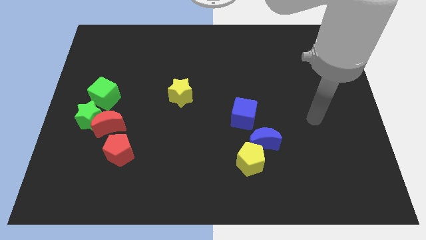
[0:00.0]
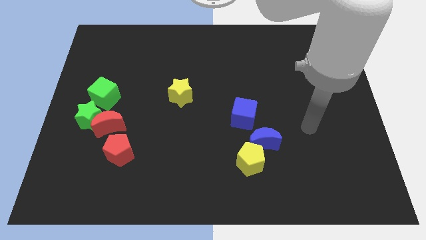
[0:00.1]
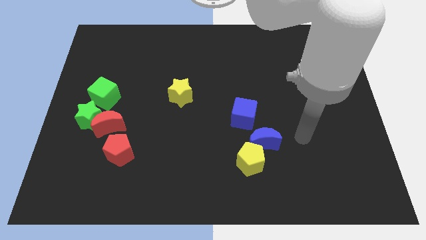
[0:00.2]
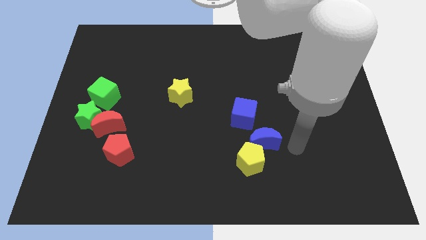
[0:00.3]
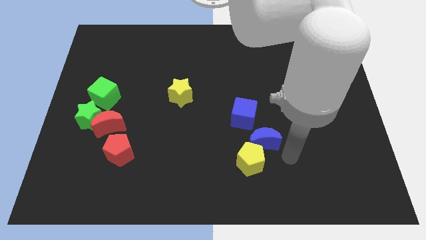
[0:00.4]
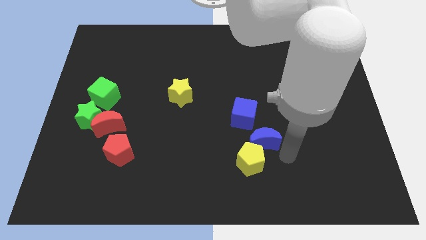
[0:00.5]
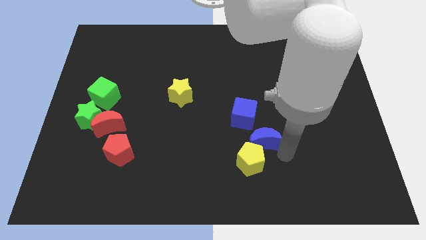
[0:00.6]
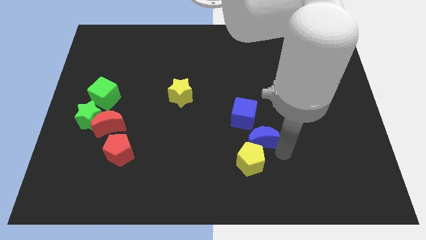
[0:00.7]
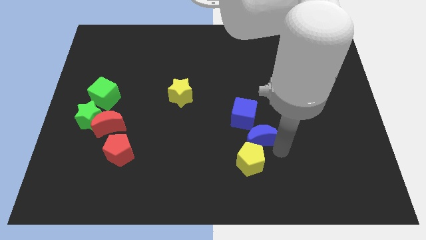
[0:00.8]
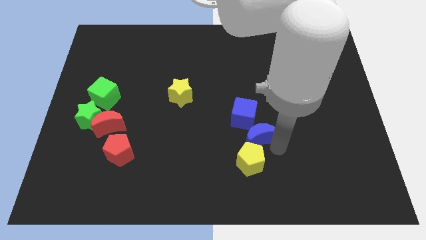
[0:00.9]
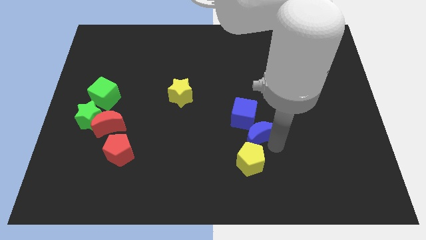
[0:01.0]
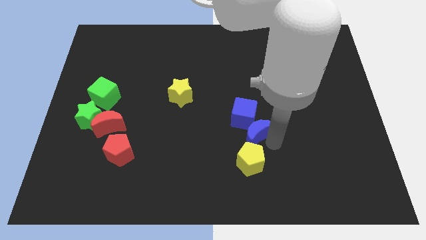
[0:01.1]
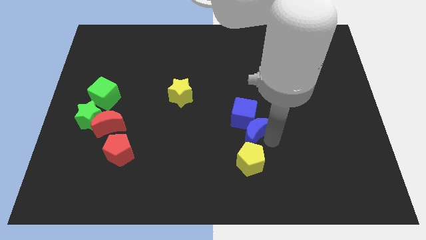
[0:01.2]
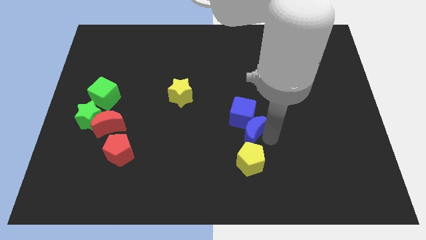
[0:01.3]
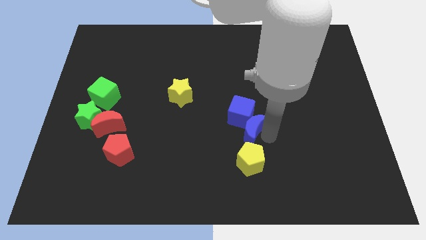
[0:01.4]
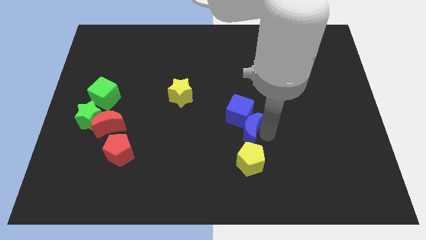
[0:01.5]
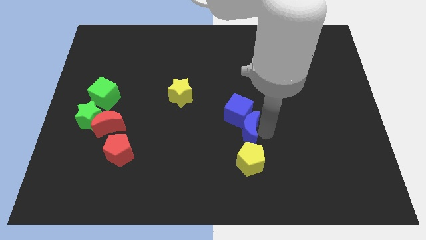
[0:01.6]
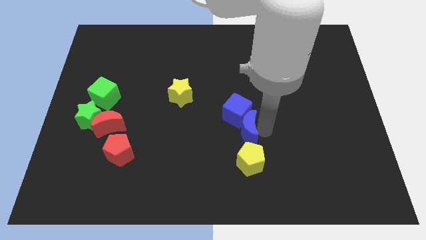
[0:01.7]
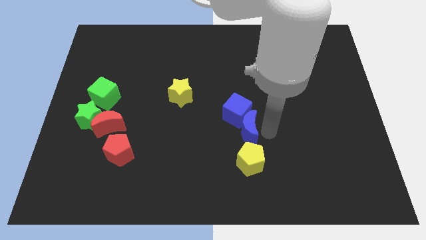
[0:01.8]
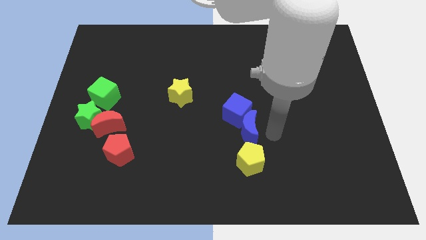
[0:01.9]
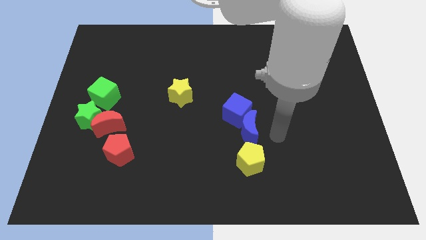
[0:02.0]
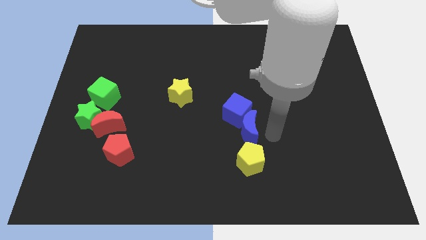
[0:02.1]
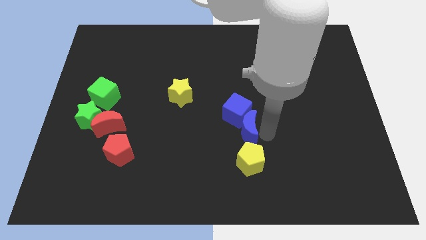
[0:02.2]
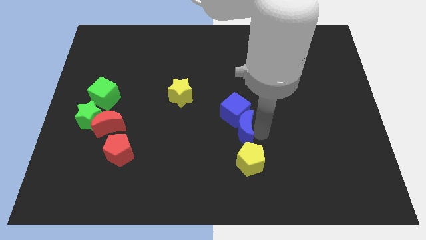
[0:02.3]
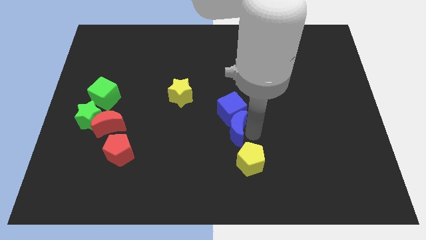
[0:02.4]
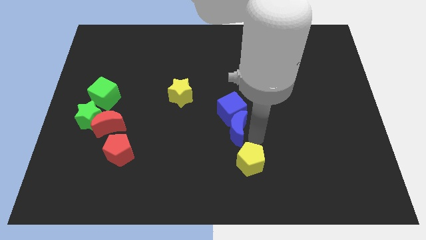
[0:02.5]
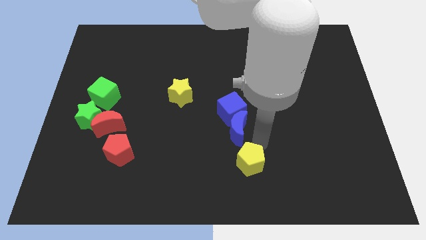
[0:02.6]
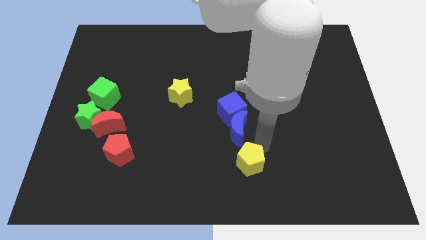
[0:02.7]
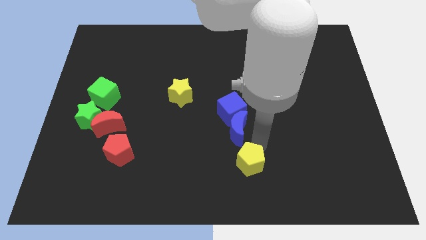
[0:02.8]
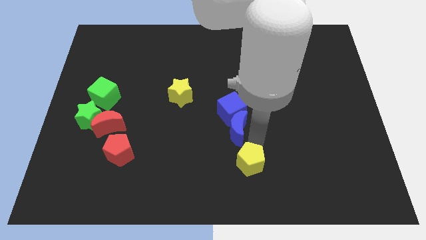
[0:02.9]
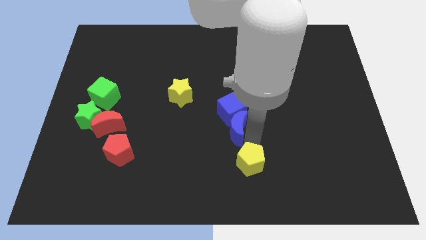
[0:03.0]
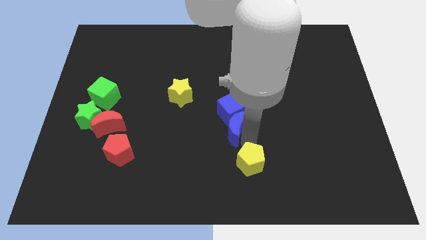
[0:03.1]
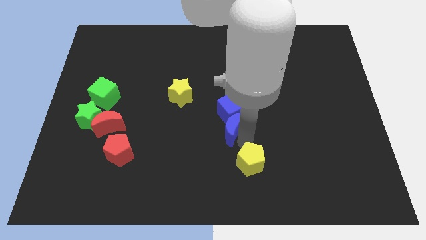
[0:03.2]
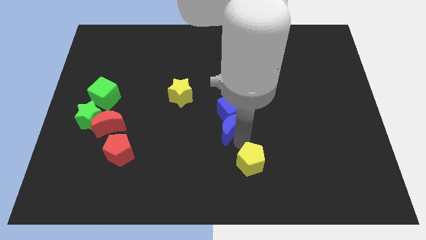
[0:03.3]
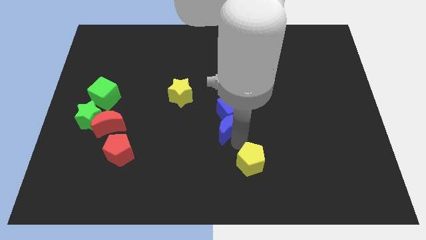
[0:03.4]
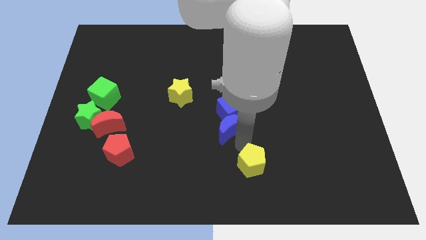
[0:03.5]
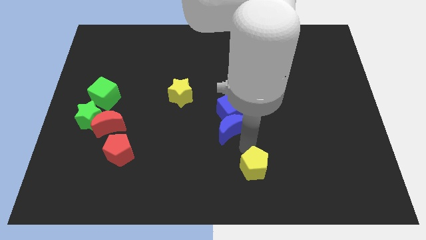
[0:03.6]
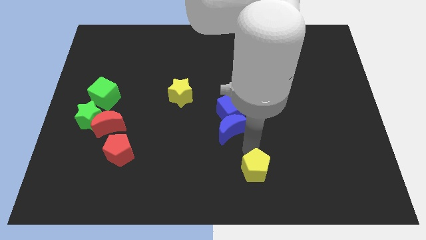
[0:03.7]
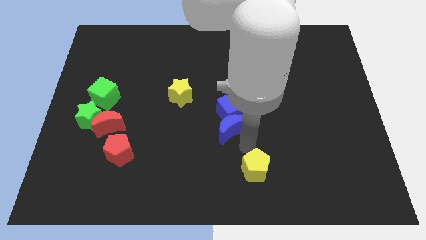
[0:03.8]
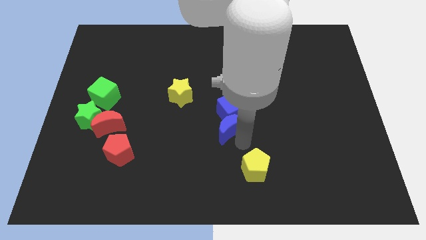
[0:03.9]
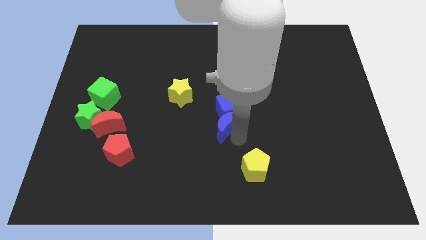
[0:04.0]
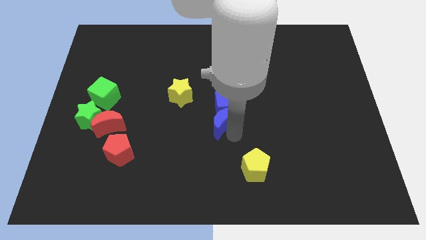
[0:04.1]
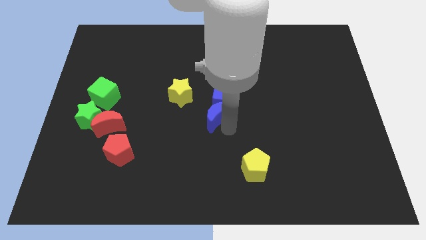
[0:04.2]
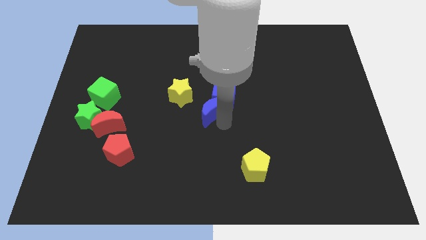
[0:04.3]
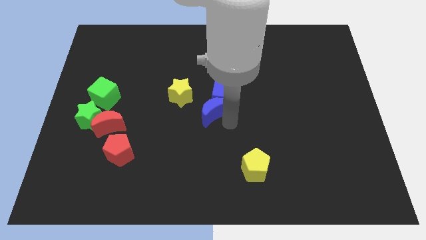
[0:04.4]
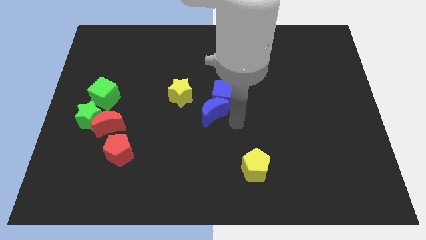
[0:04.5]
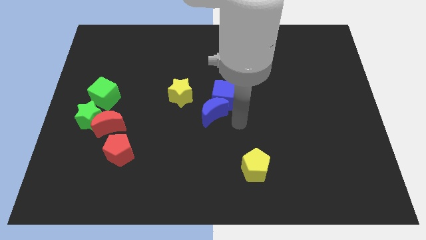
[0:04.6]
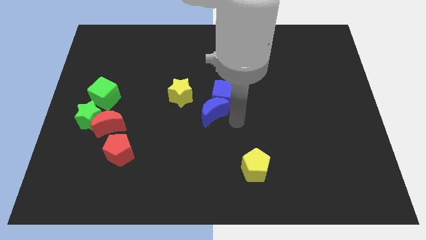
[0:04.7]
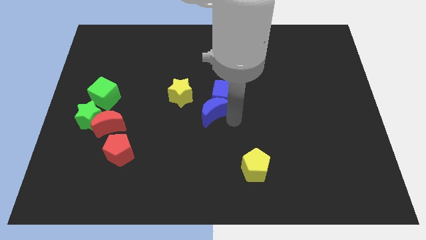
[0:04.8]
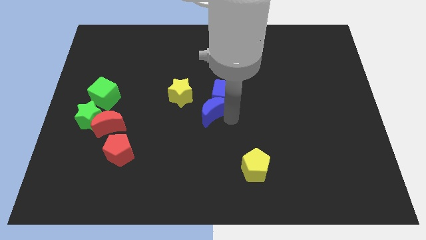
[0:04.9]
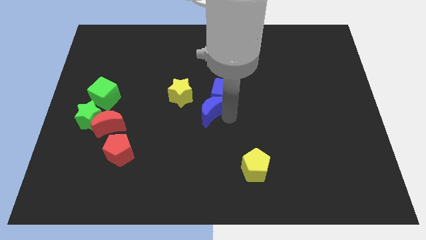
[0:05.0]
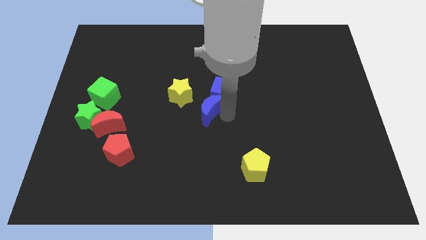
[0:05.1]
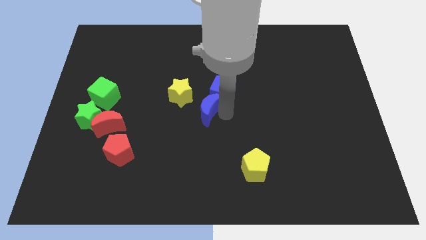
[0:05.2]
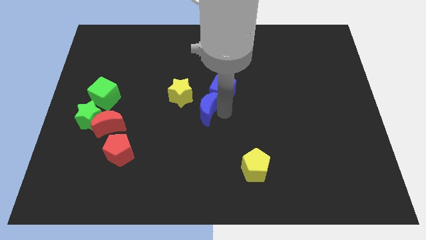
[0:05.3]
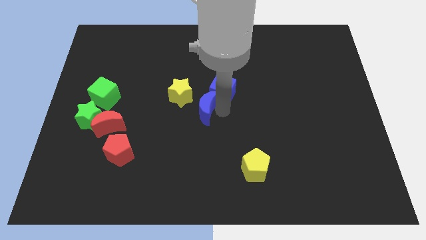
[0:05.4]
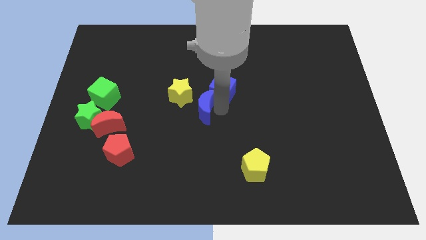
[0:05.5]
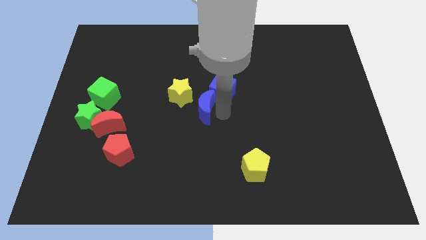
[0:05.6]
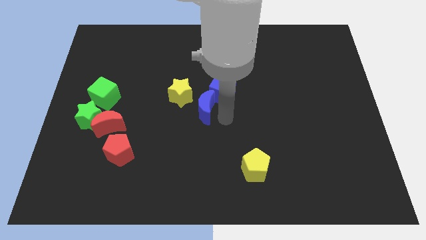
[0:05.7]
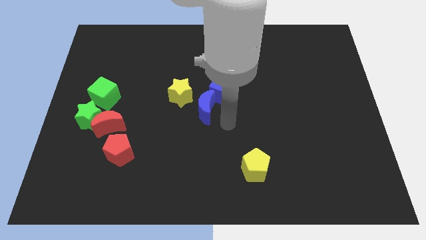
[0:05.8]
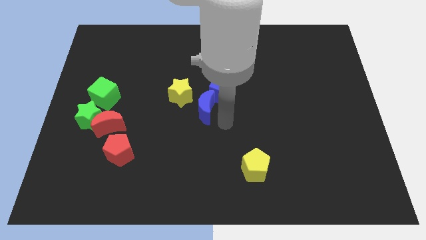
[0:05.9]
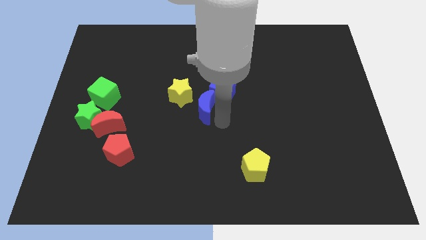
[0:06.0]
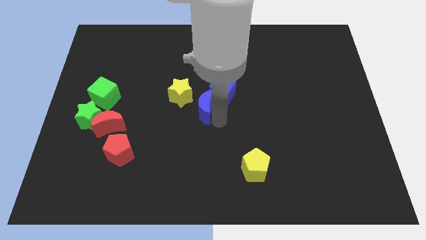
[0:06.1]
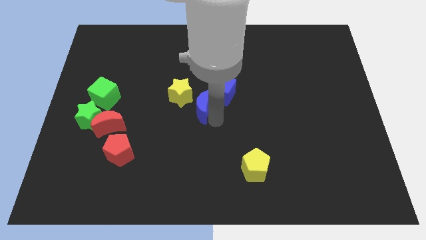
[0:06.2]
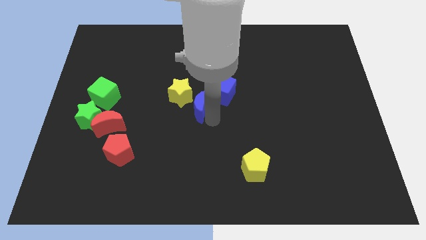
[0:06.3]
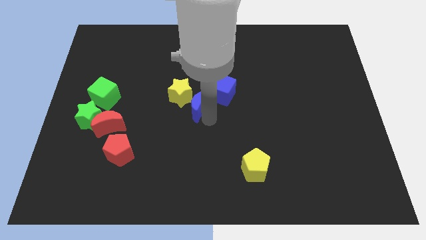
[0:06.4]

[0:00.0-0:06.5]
slide the blue moon close to the yellow star
